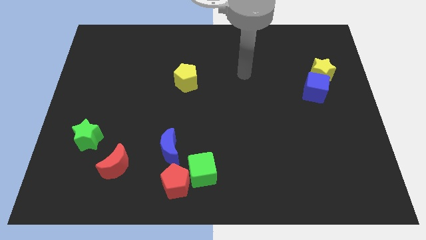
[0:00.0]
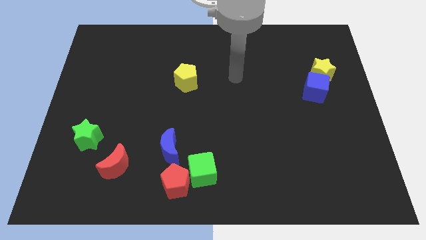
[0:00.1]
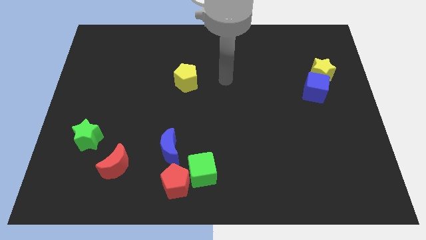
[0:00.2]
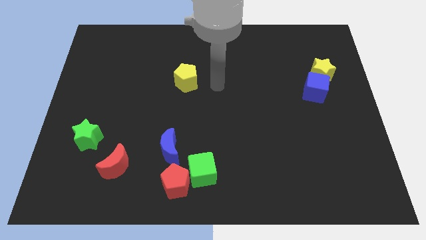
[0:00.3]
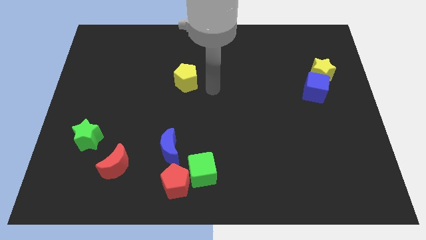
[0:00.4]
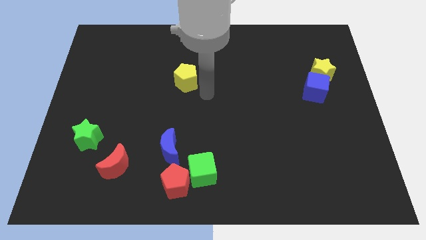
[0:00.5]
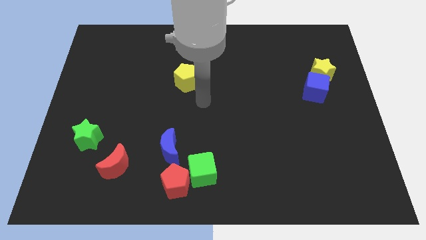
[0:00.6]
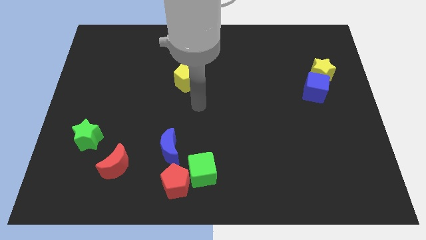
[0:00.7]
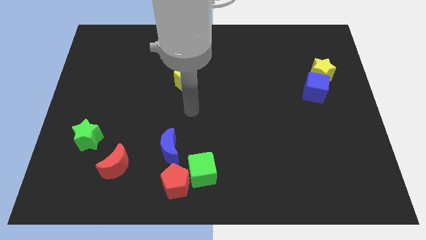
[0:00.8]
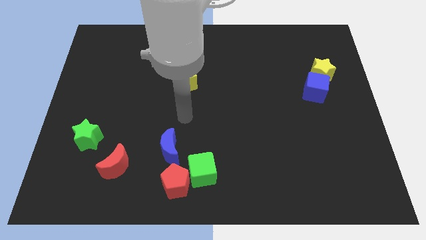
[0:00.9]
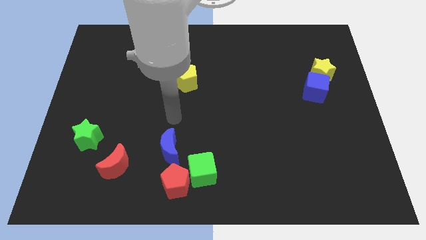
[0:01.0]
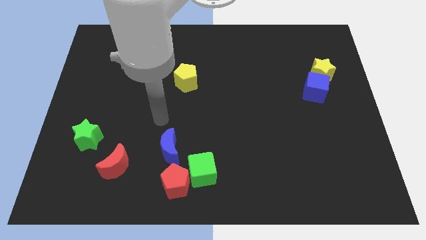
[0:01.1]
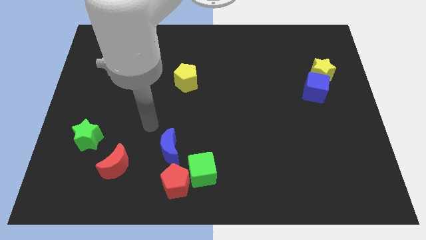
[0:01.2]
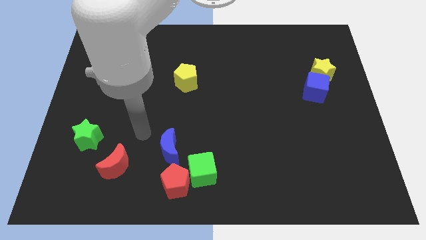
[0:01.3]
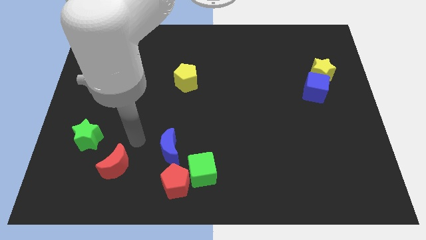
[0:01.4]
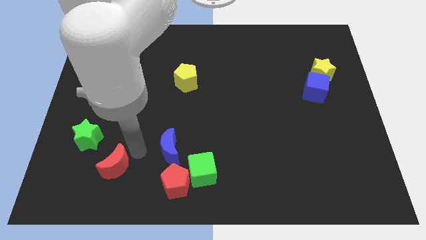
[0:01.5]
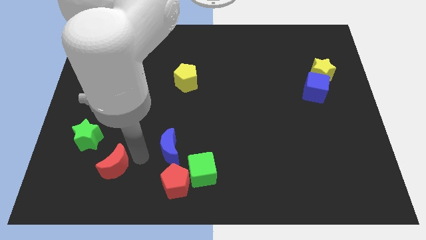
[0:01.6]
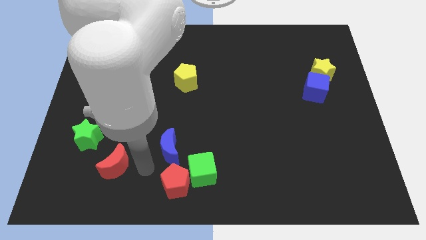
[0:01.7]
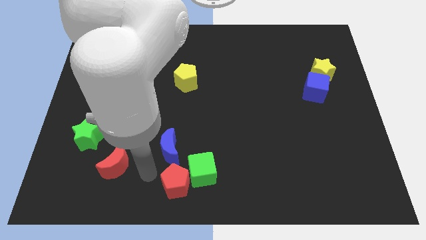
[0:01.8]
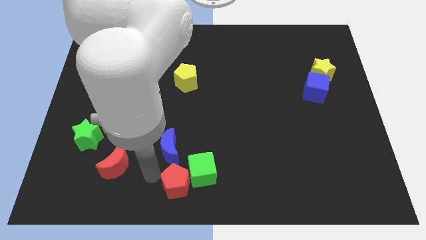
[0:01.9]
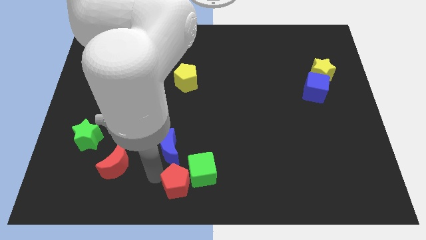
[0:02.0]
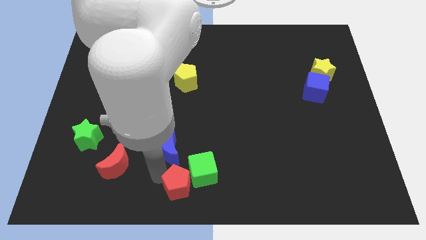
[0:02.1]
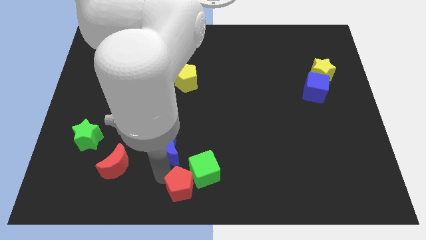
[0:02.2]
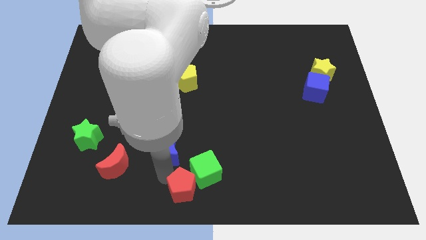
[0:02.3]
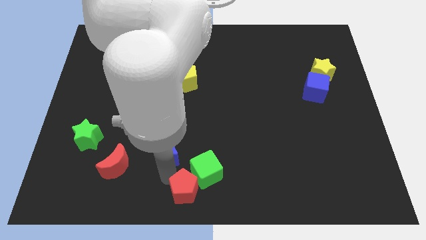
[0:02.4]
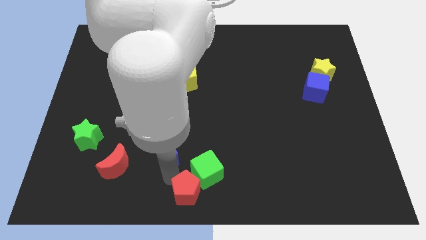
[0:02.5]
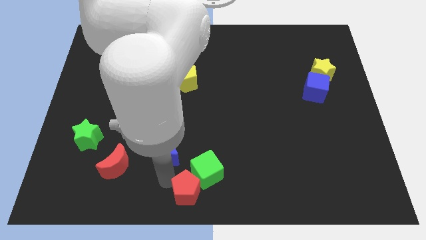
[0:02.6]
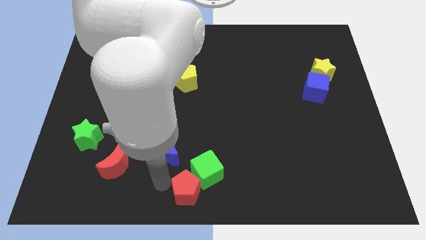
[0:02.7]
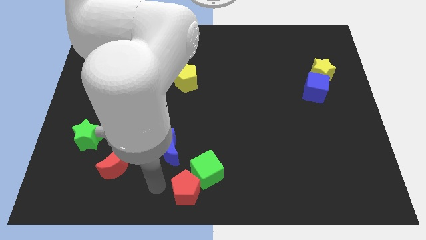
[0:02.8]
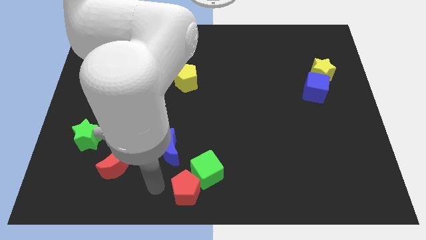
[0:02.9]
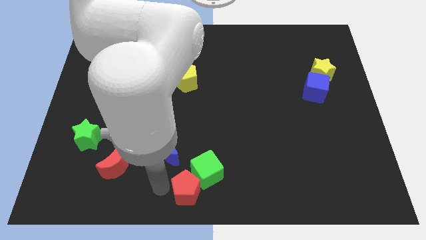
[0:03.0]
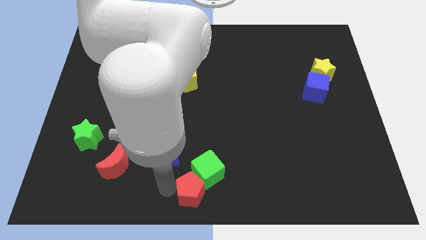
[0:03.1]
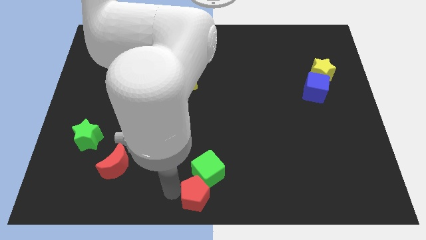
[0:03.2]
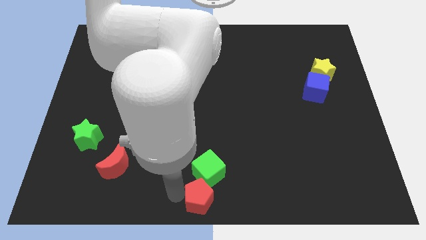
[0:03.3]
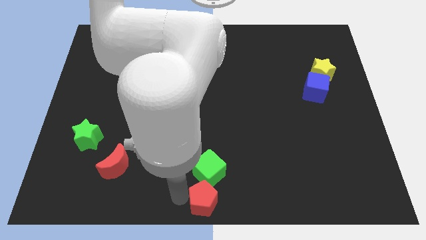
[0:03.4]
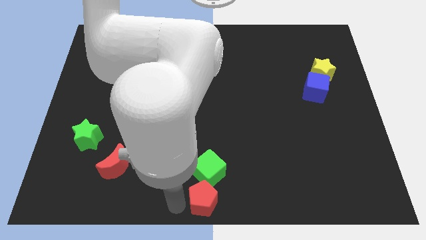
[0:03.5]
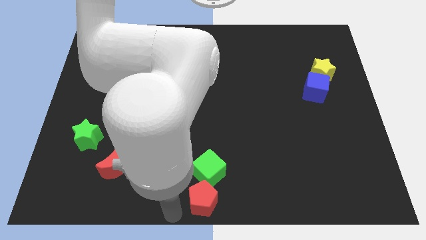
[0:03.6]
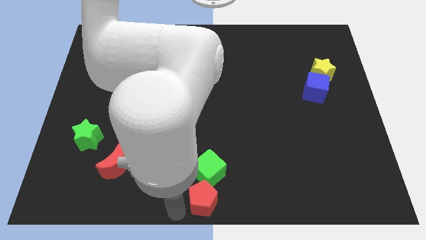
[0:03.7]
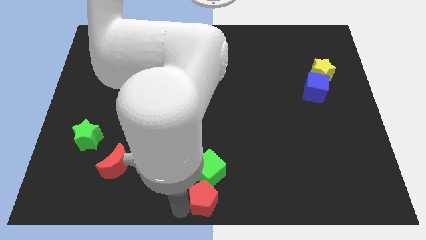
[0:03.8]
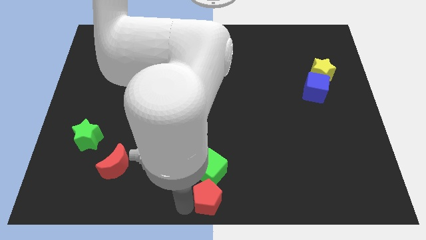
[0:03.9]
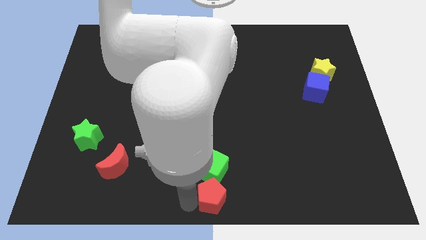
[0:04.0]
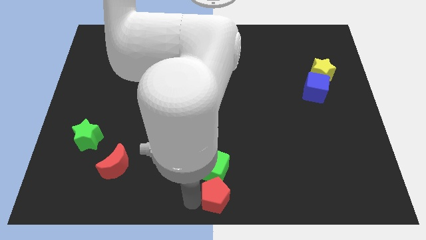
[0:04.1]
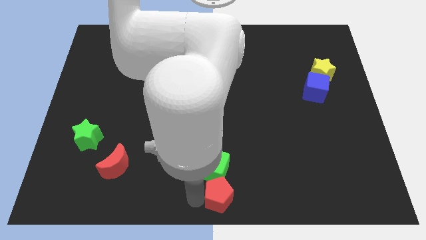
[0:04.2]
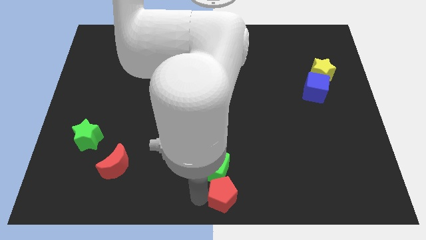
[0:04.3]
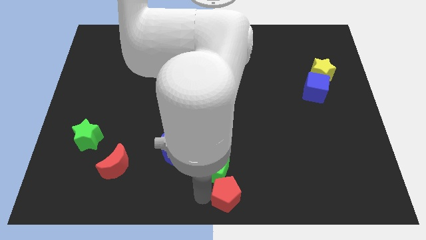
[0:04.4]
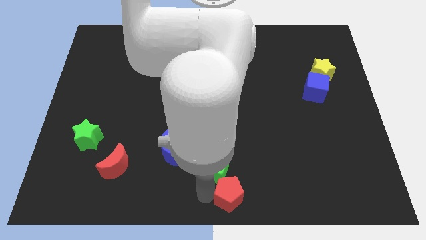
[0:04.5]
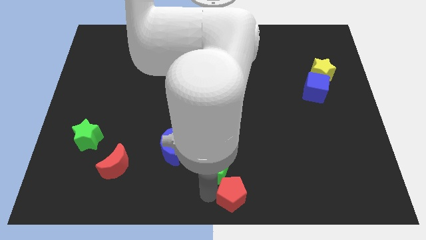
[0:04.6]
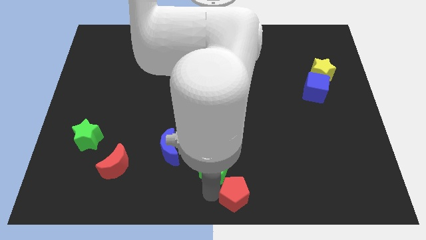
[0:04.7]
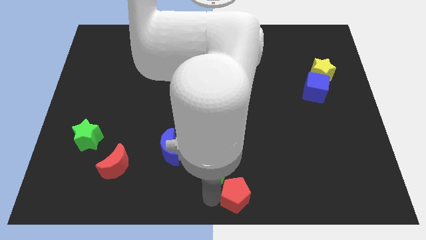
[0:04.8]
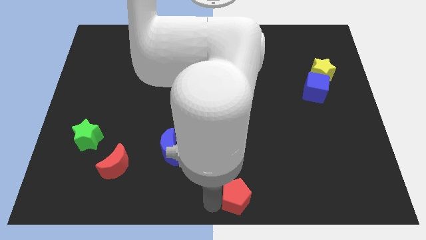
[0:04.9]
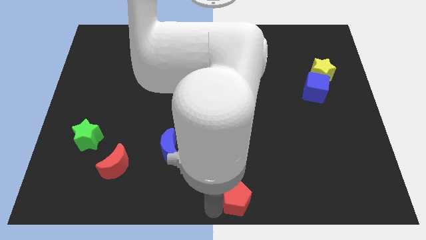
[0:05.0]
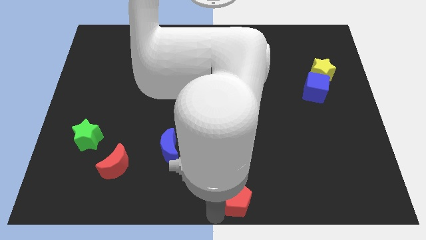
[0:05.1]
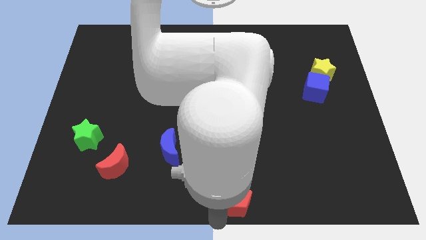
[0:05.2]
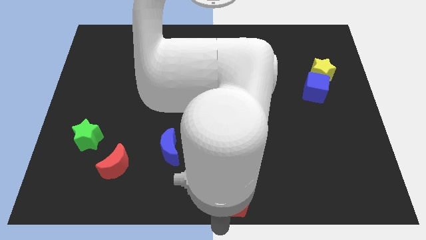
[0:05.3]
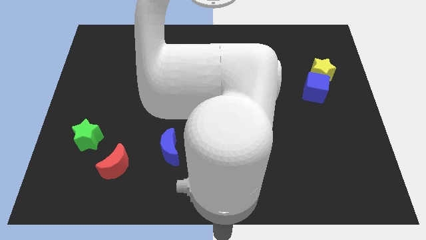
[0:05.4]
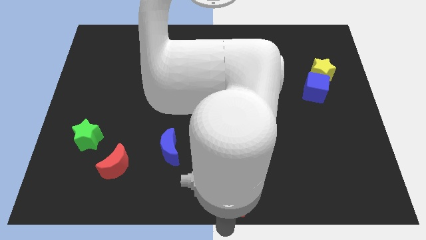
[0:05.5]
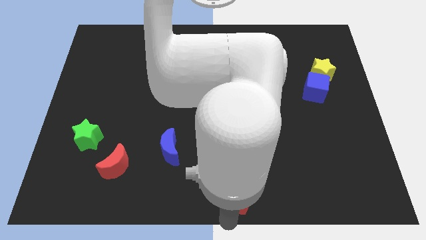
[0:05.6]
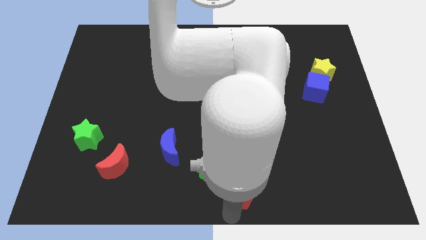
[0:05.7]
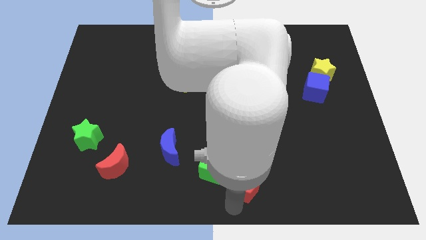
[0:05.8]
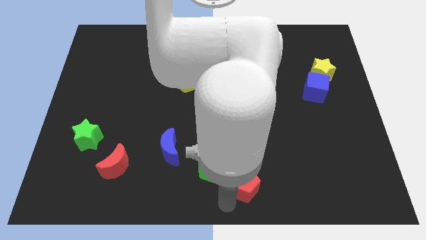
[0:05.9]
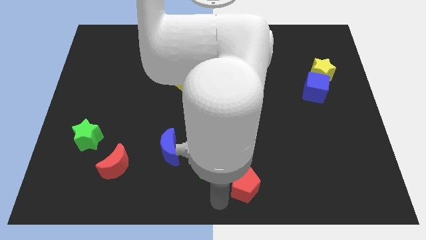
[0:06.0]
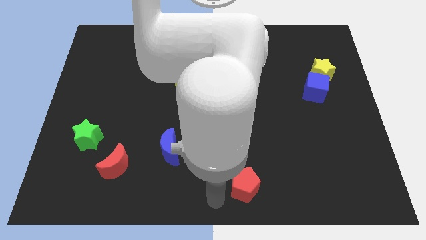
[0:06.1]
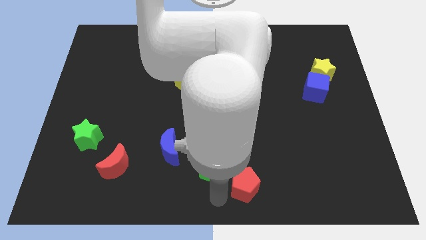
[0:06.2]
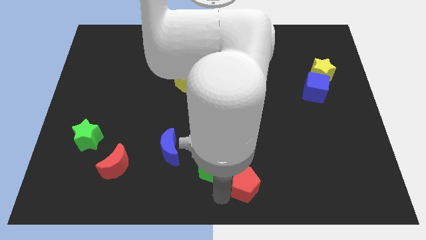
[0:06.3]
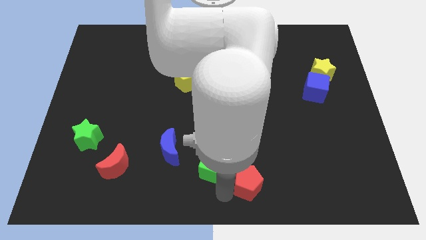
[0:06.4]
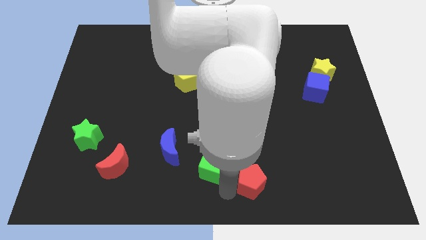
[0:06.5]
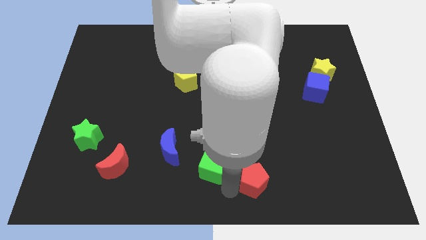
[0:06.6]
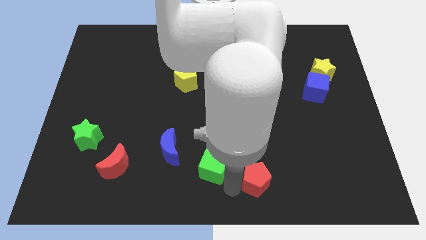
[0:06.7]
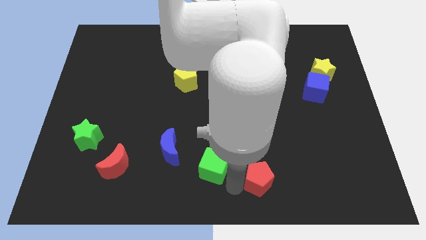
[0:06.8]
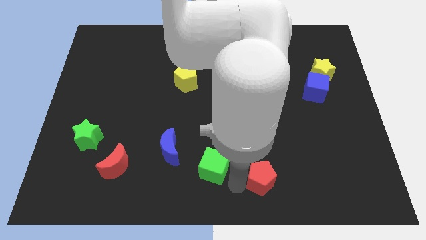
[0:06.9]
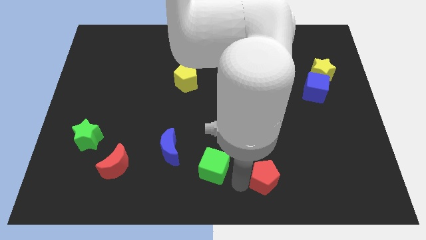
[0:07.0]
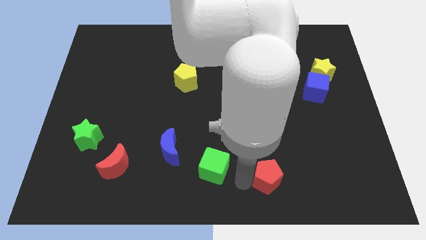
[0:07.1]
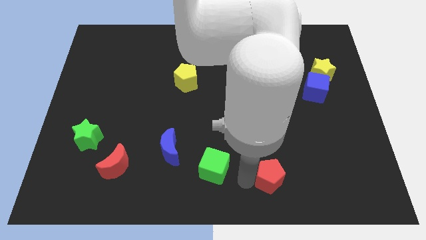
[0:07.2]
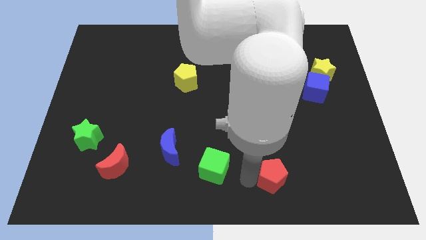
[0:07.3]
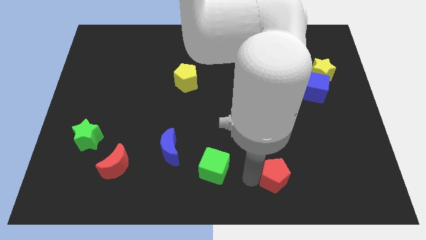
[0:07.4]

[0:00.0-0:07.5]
push the red pentagon right

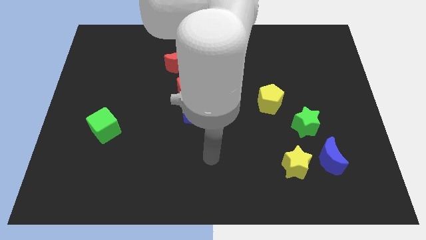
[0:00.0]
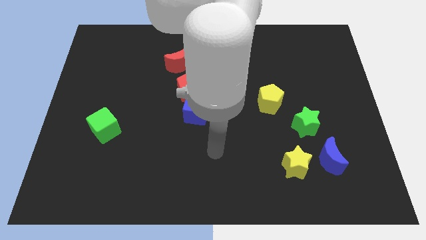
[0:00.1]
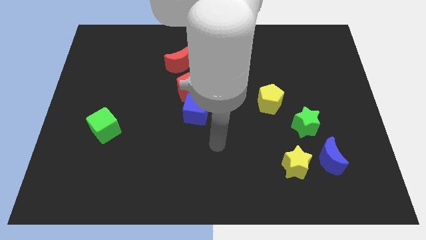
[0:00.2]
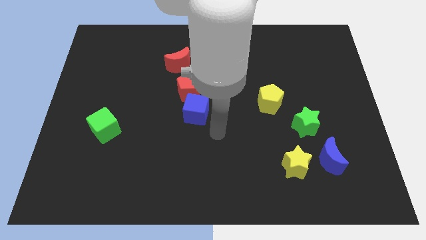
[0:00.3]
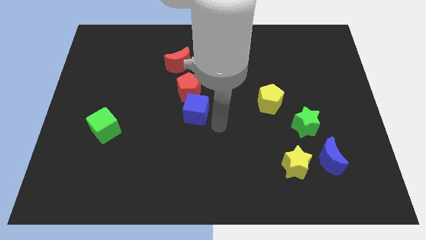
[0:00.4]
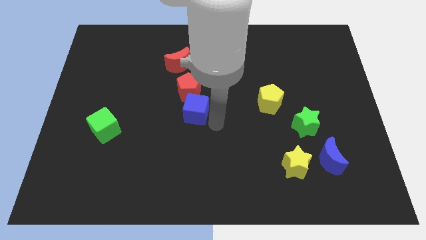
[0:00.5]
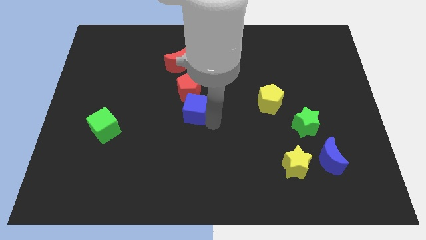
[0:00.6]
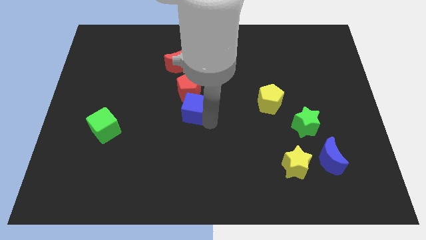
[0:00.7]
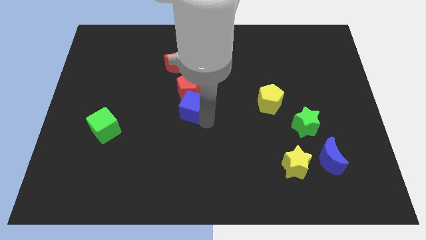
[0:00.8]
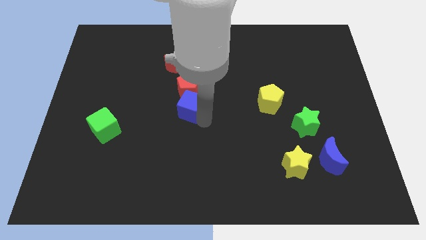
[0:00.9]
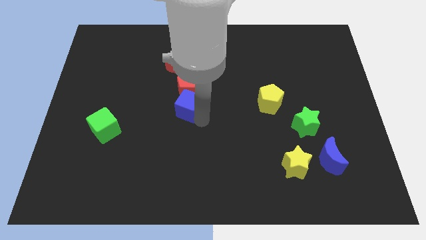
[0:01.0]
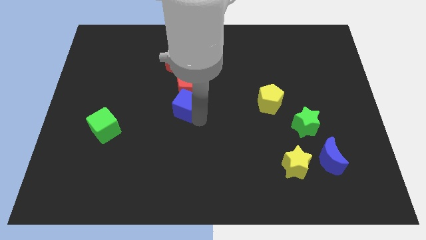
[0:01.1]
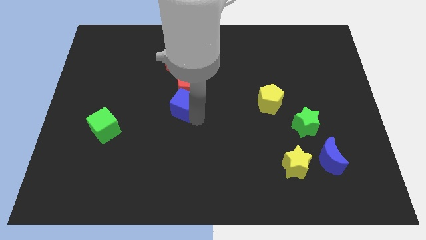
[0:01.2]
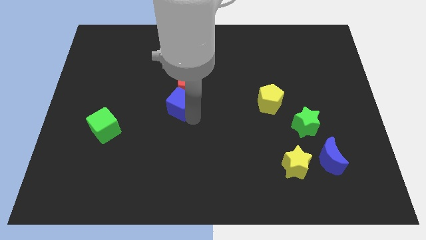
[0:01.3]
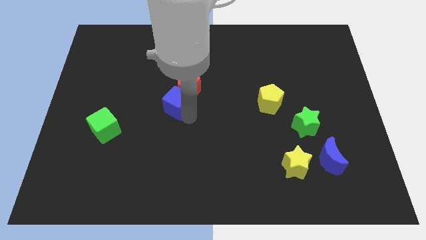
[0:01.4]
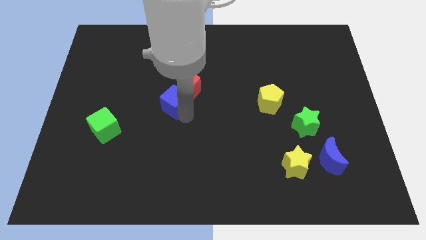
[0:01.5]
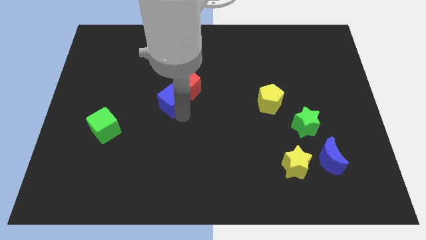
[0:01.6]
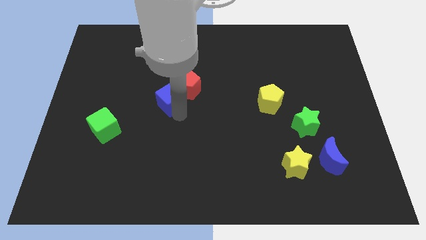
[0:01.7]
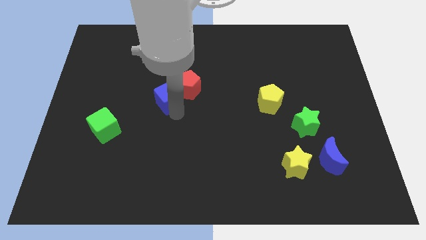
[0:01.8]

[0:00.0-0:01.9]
slightly move the blue cube diagonally up and left
